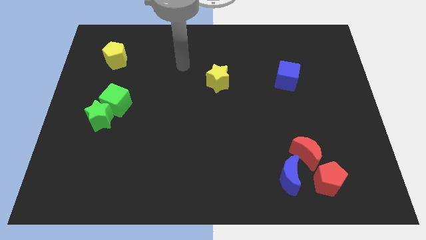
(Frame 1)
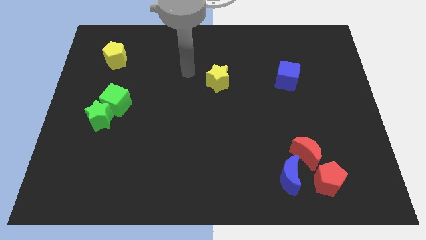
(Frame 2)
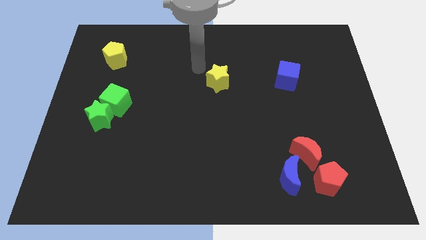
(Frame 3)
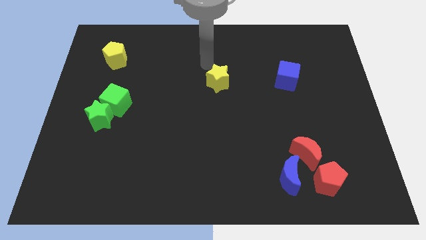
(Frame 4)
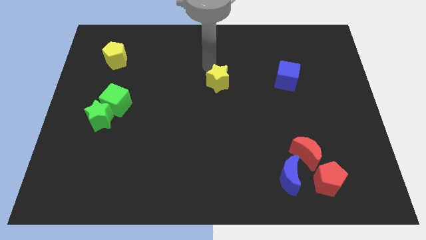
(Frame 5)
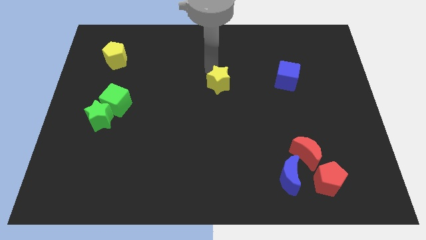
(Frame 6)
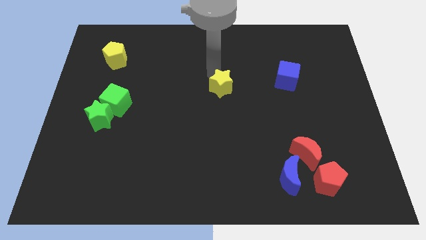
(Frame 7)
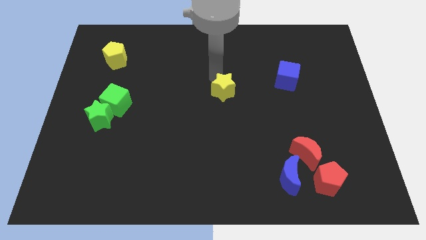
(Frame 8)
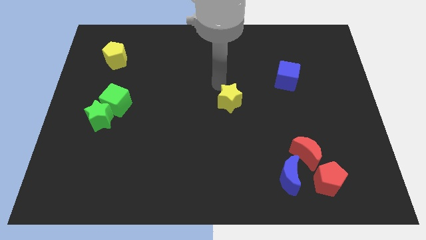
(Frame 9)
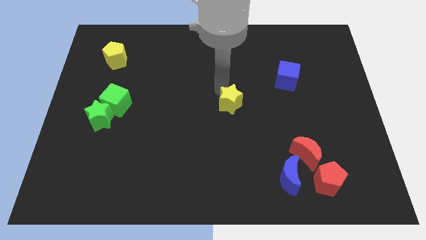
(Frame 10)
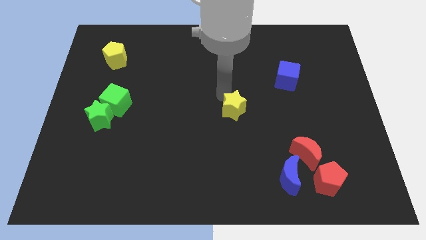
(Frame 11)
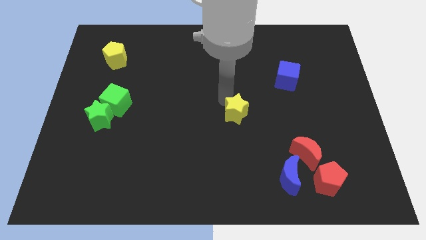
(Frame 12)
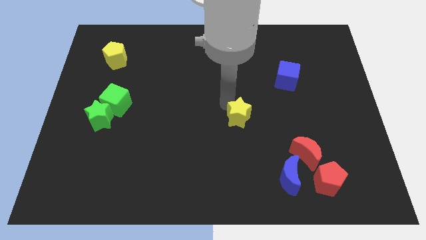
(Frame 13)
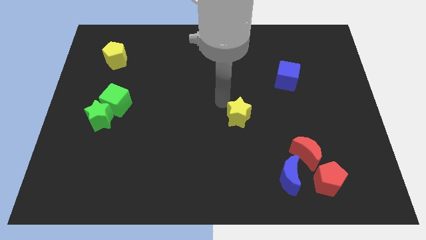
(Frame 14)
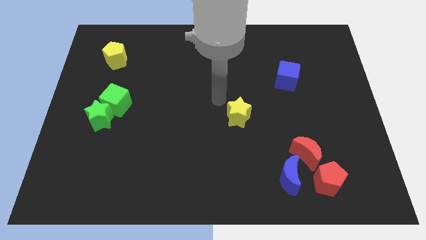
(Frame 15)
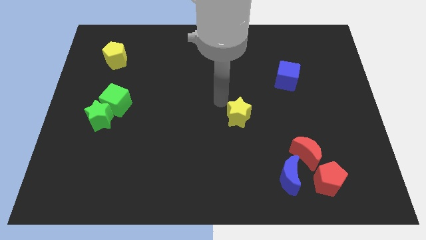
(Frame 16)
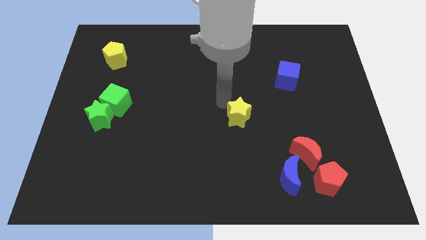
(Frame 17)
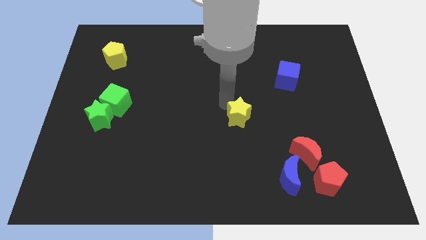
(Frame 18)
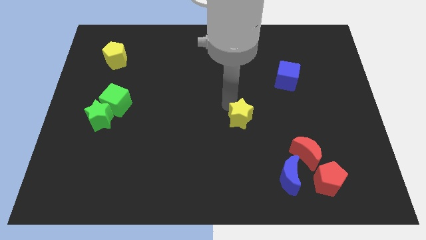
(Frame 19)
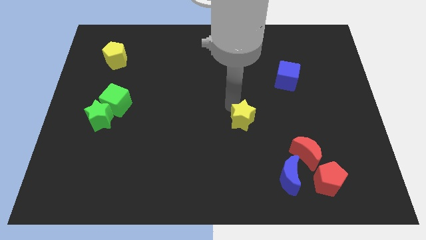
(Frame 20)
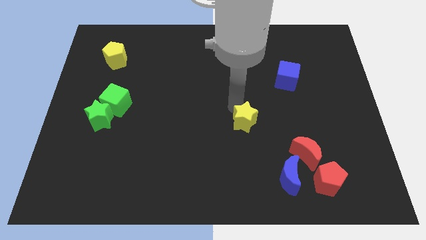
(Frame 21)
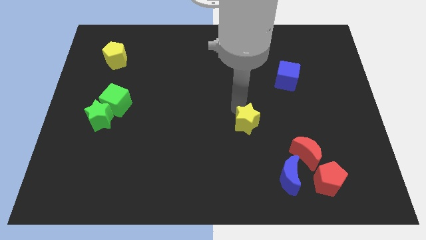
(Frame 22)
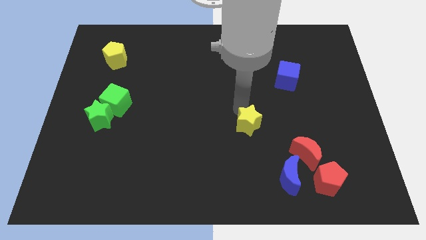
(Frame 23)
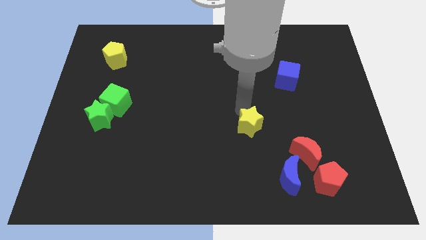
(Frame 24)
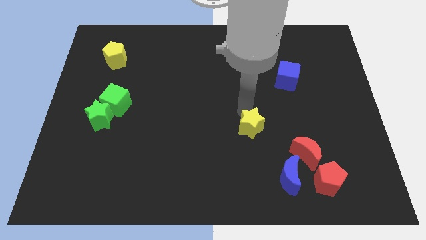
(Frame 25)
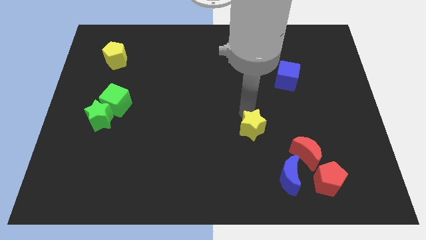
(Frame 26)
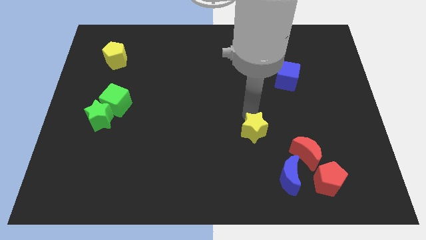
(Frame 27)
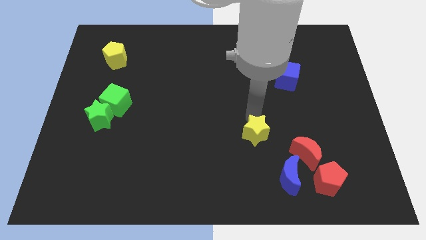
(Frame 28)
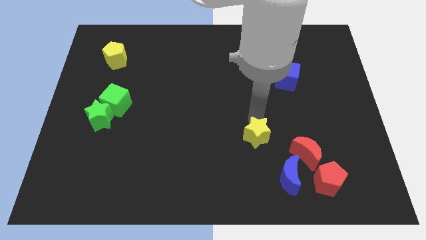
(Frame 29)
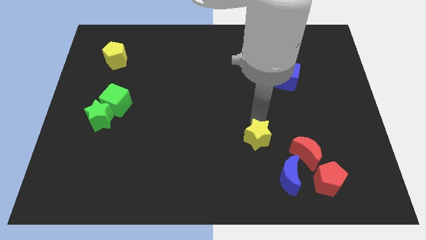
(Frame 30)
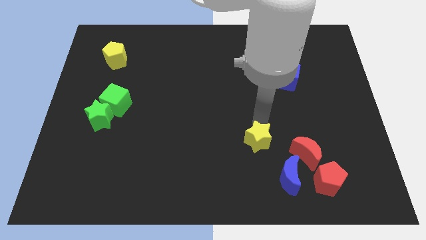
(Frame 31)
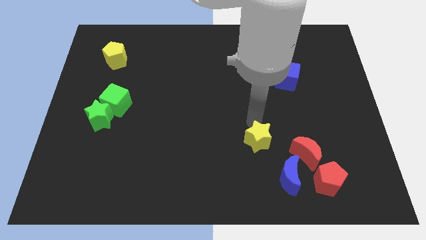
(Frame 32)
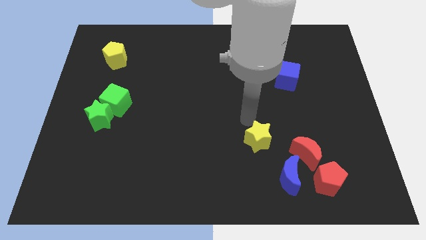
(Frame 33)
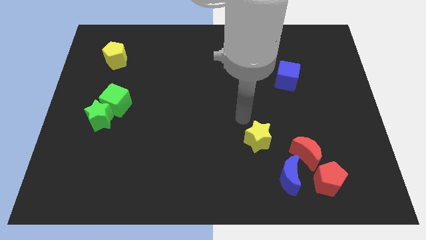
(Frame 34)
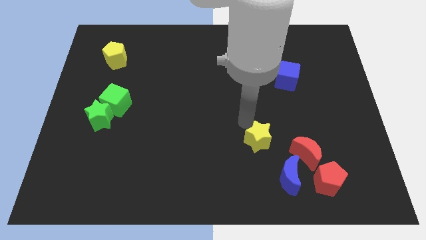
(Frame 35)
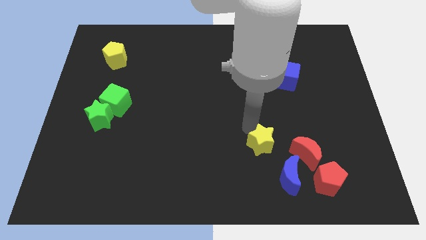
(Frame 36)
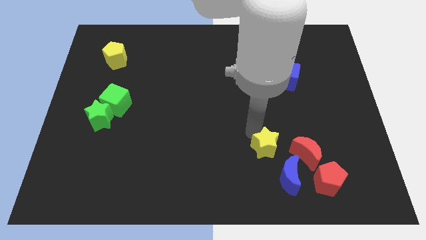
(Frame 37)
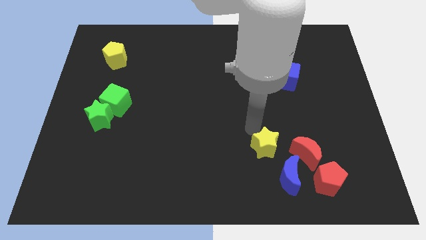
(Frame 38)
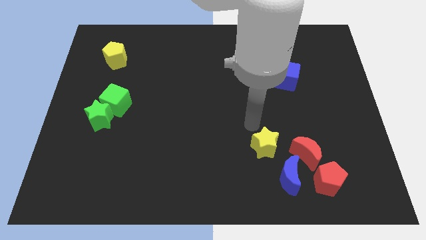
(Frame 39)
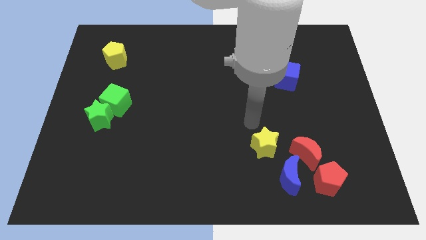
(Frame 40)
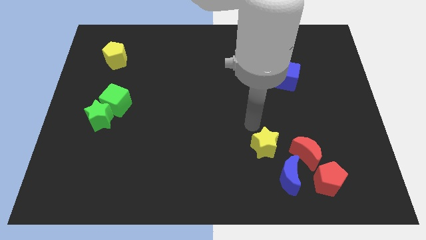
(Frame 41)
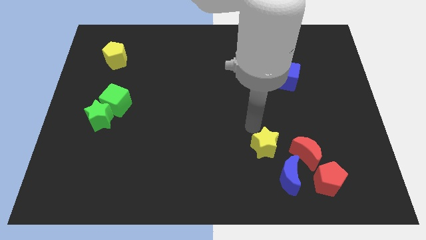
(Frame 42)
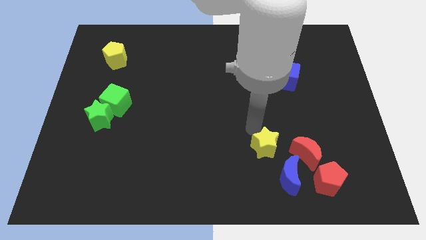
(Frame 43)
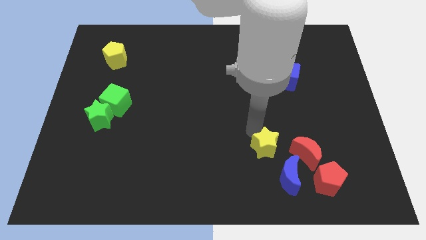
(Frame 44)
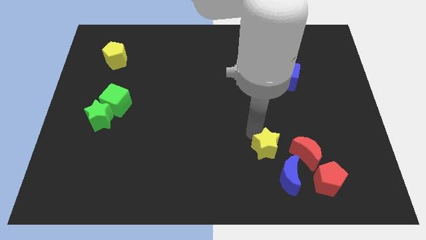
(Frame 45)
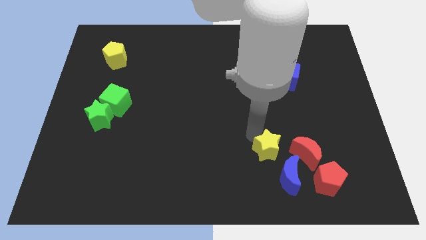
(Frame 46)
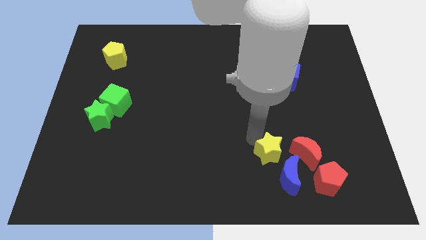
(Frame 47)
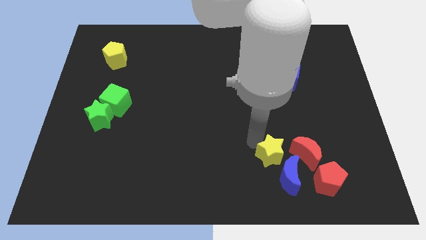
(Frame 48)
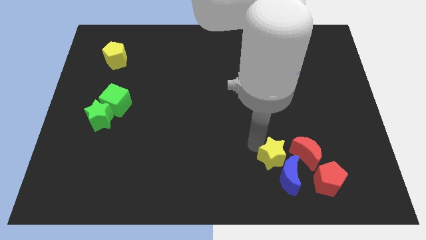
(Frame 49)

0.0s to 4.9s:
put the yellow star towards the blue moon

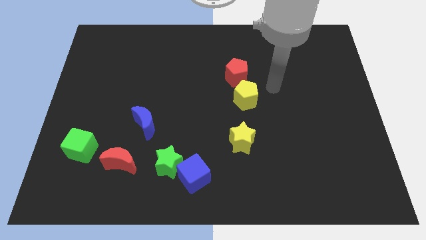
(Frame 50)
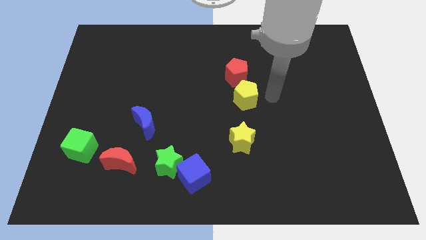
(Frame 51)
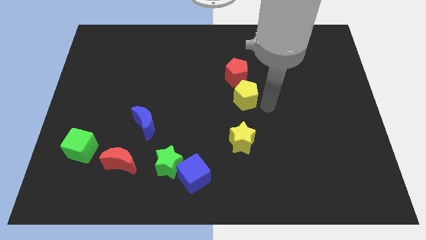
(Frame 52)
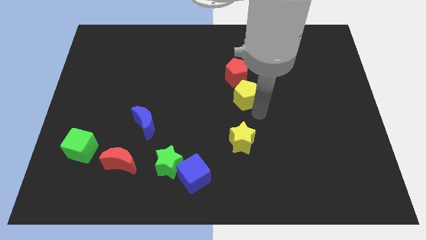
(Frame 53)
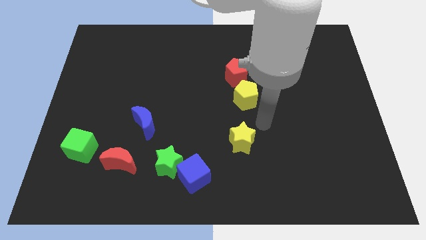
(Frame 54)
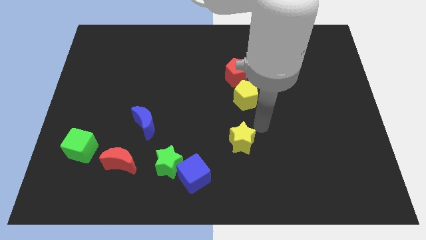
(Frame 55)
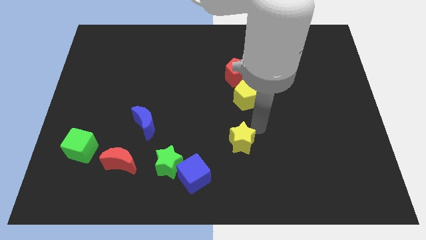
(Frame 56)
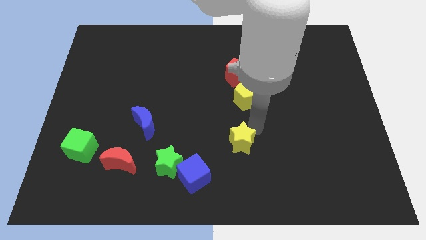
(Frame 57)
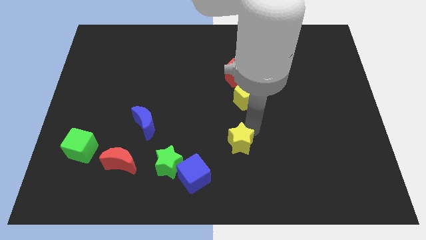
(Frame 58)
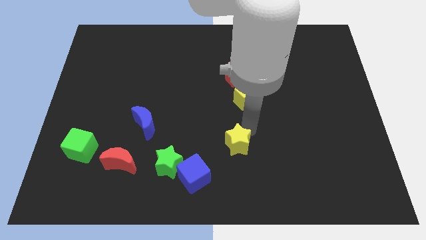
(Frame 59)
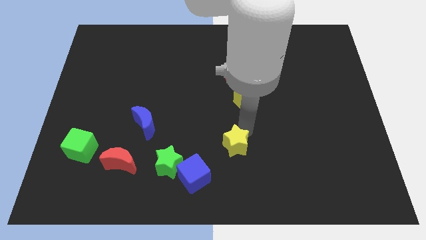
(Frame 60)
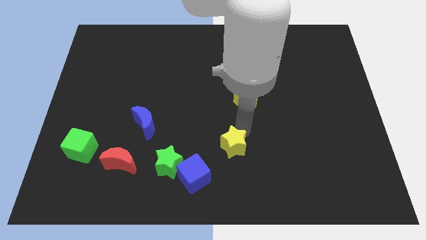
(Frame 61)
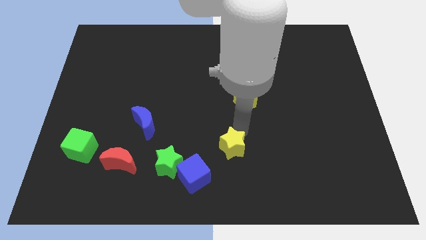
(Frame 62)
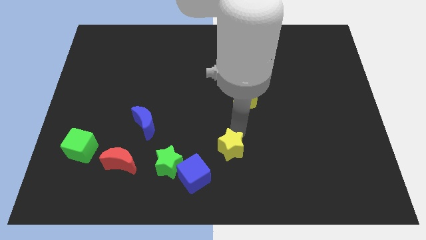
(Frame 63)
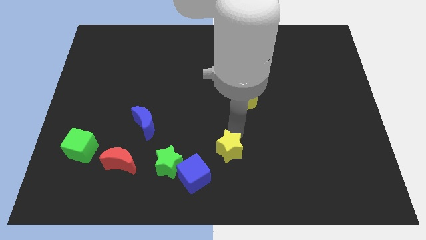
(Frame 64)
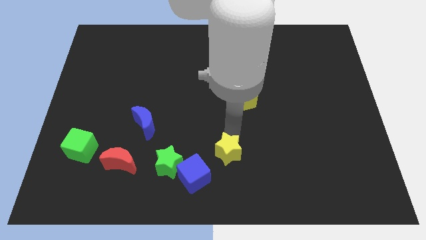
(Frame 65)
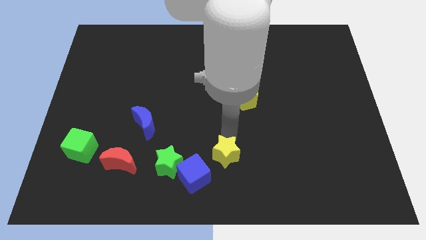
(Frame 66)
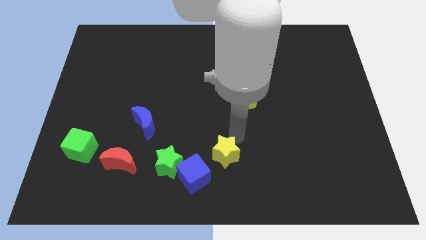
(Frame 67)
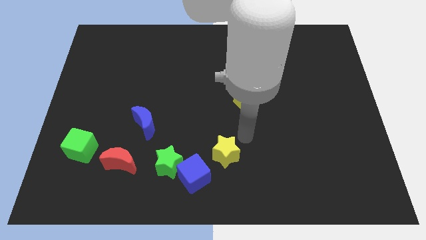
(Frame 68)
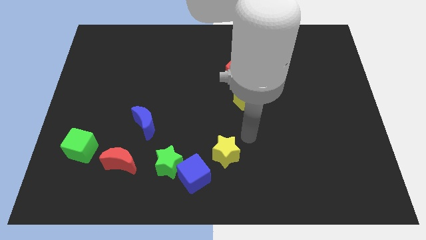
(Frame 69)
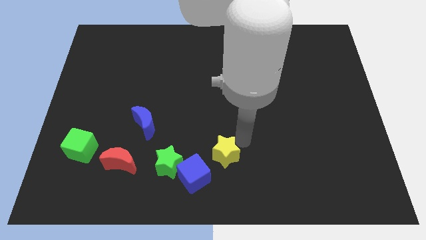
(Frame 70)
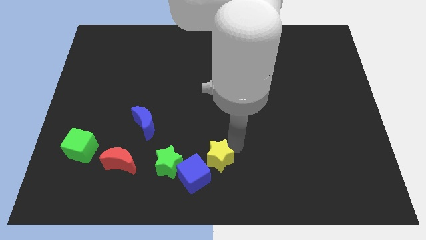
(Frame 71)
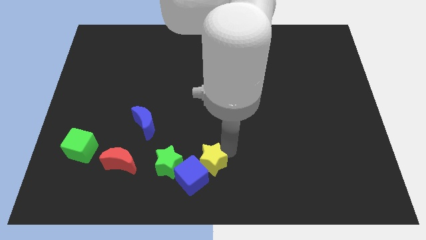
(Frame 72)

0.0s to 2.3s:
slide the yellow star next to the blue cube
